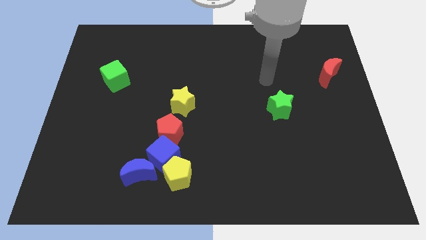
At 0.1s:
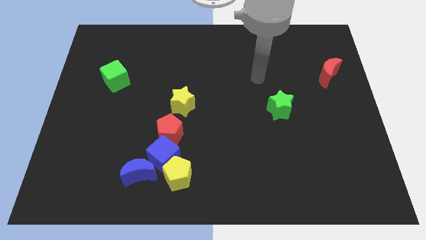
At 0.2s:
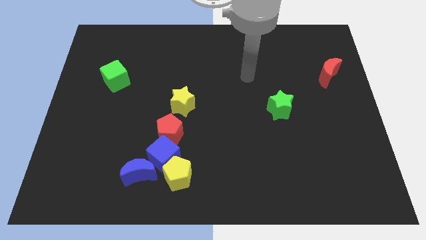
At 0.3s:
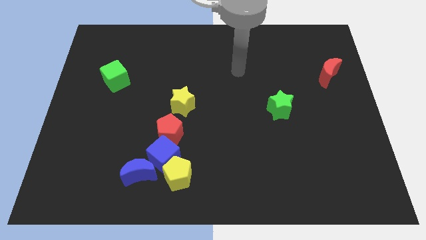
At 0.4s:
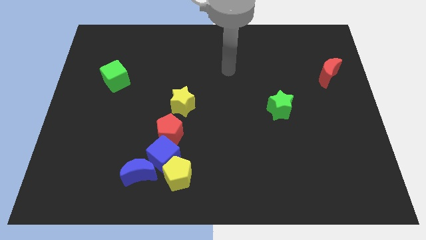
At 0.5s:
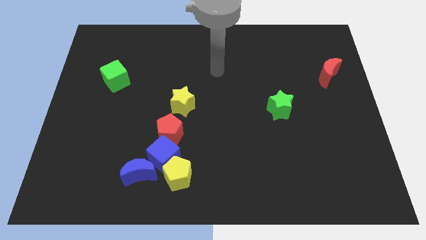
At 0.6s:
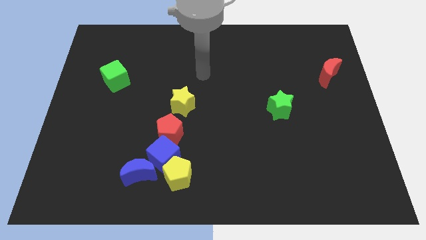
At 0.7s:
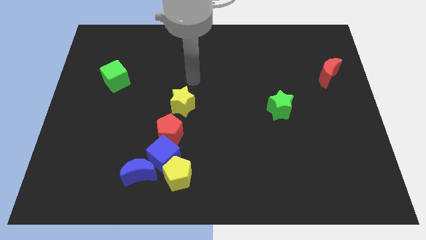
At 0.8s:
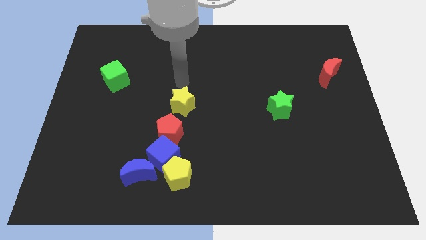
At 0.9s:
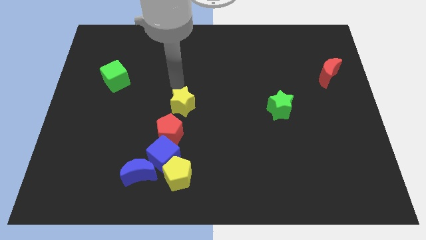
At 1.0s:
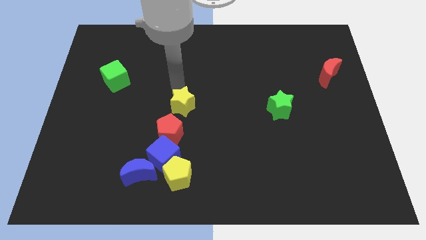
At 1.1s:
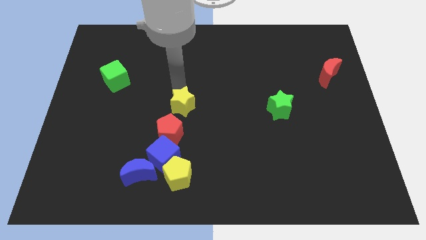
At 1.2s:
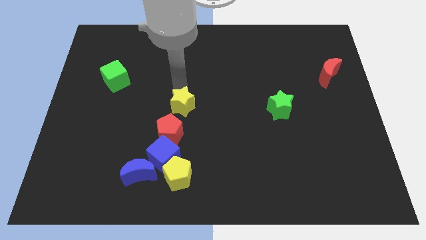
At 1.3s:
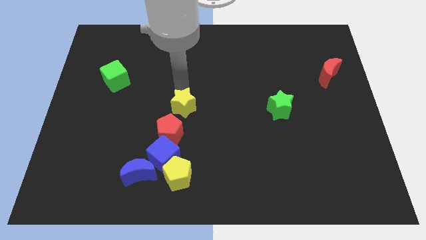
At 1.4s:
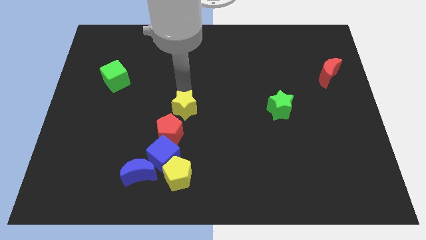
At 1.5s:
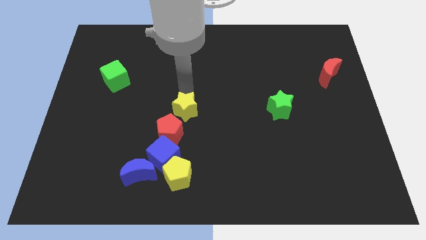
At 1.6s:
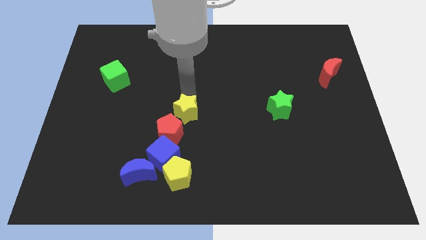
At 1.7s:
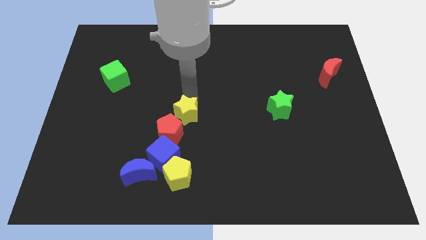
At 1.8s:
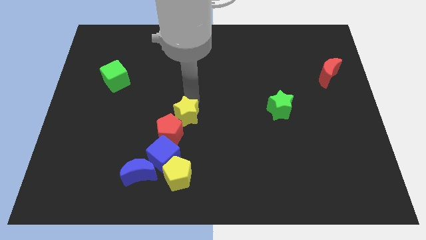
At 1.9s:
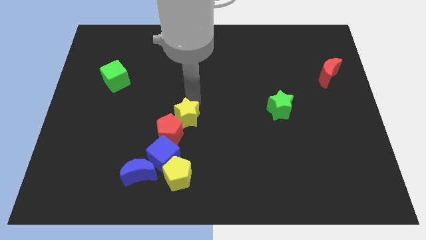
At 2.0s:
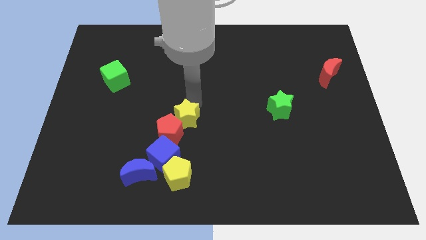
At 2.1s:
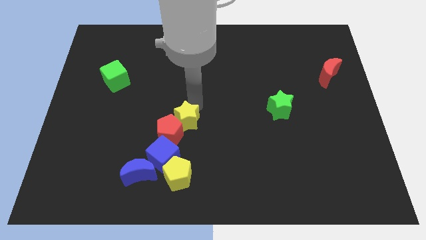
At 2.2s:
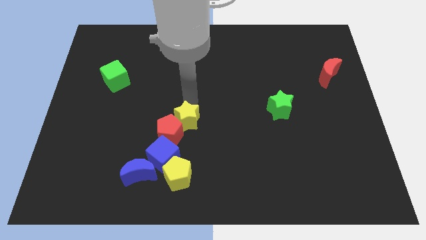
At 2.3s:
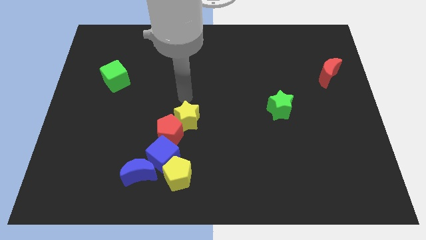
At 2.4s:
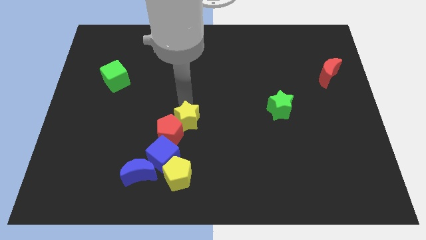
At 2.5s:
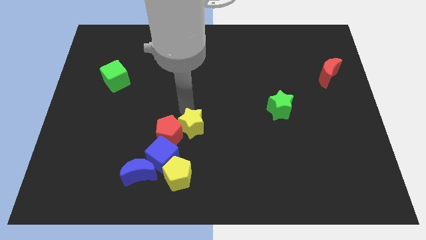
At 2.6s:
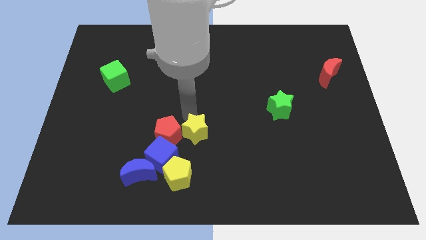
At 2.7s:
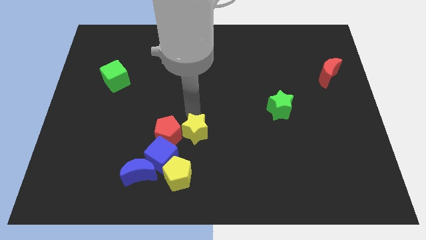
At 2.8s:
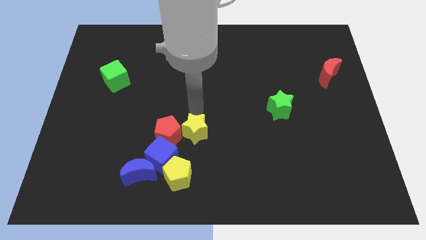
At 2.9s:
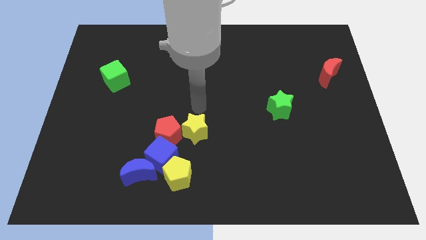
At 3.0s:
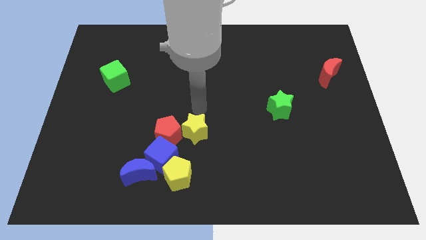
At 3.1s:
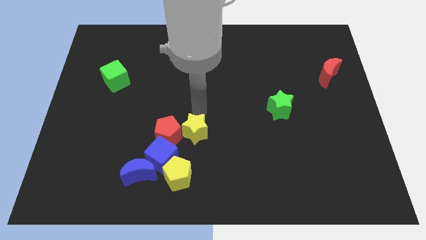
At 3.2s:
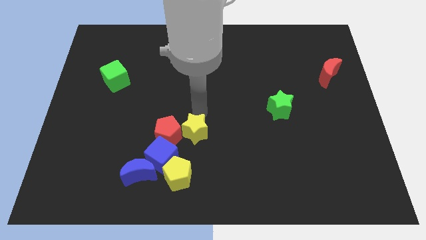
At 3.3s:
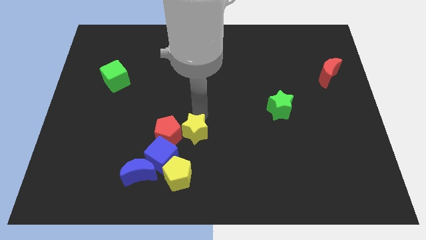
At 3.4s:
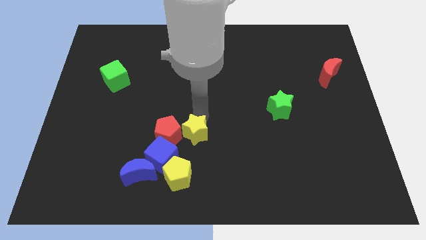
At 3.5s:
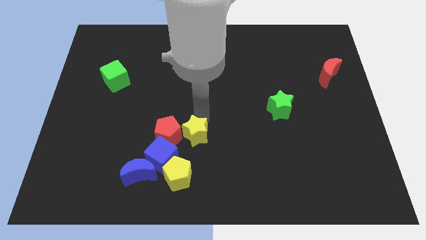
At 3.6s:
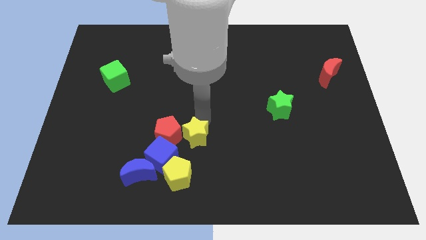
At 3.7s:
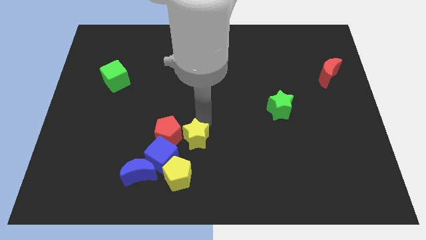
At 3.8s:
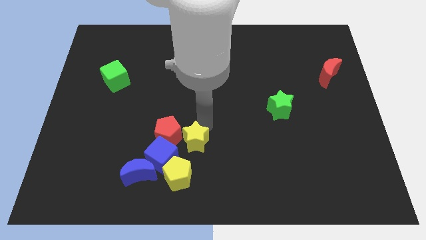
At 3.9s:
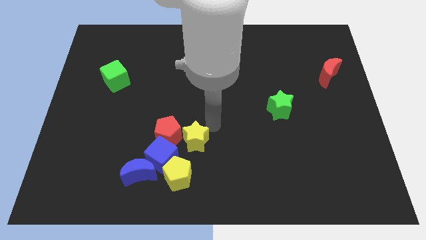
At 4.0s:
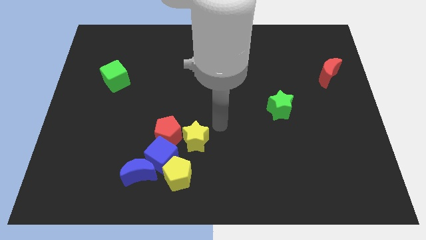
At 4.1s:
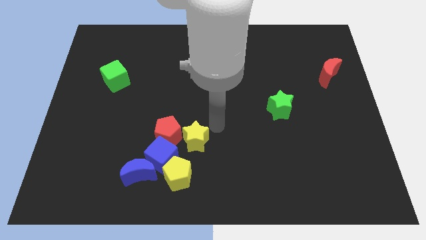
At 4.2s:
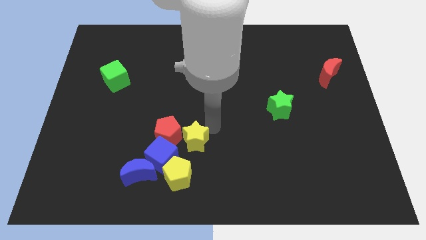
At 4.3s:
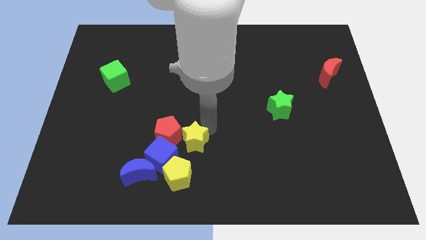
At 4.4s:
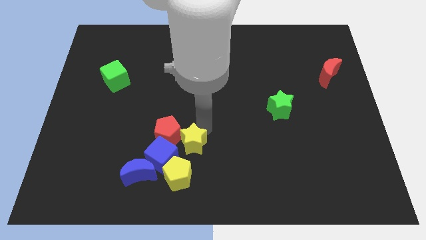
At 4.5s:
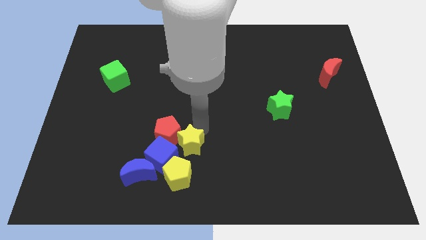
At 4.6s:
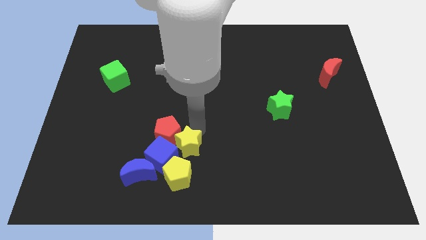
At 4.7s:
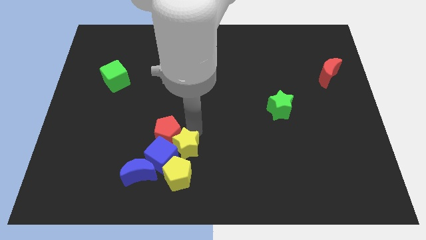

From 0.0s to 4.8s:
put the yellow star to the blue cube

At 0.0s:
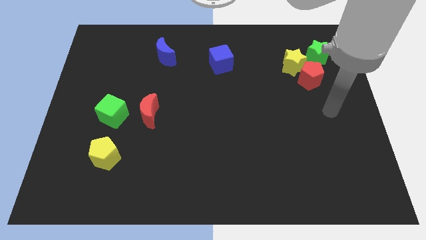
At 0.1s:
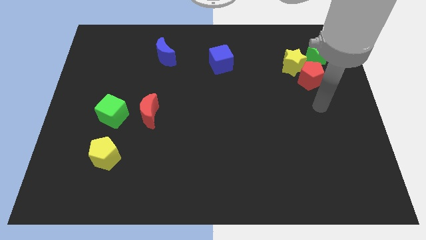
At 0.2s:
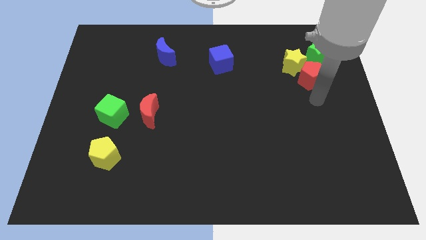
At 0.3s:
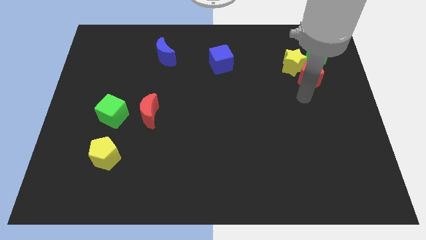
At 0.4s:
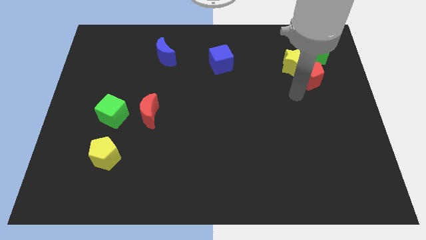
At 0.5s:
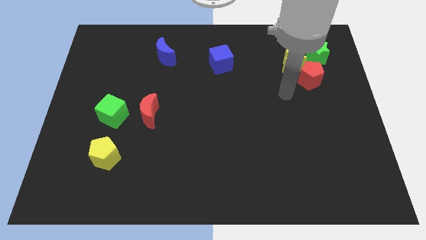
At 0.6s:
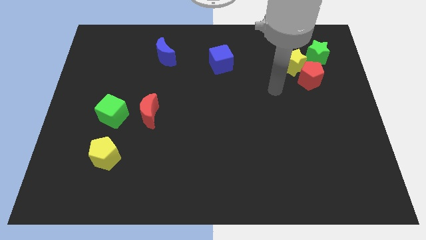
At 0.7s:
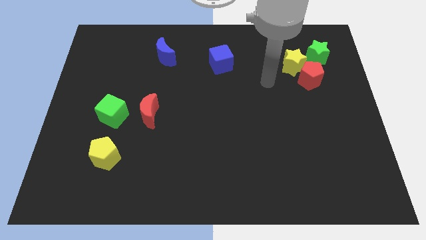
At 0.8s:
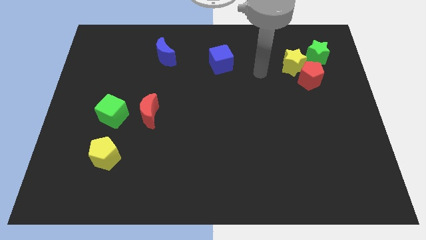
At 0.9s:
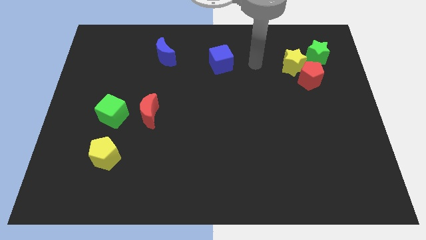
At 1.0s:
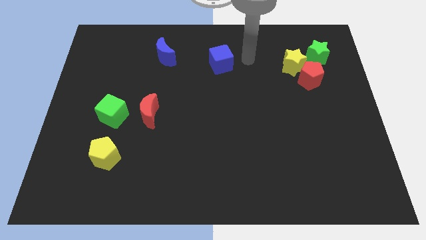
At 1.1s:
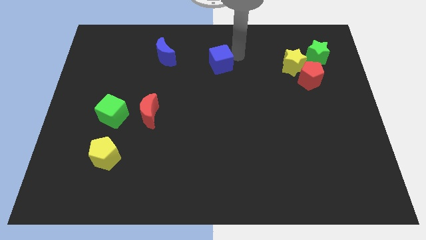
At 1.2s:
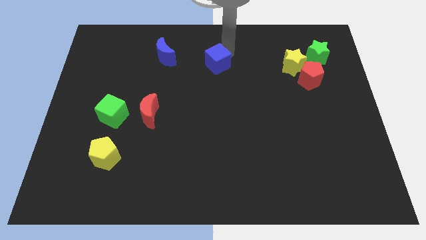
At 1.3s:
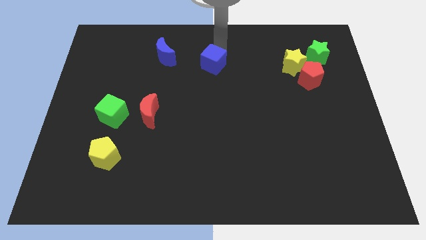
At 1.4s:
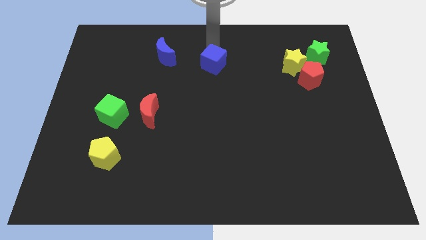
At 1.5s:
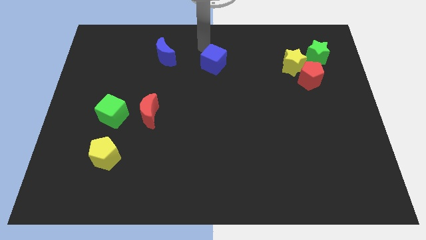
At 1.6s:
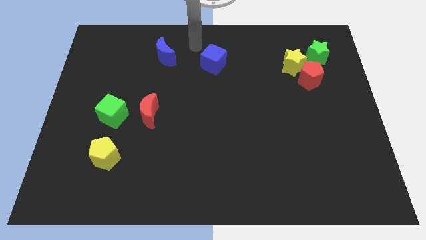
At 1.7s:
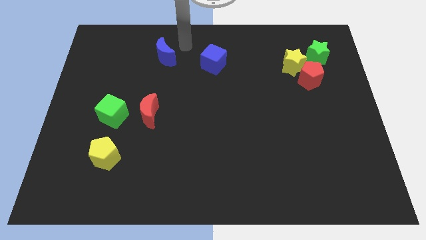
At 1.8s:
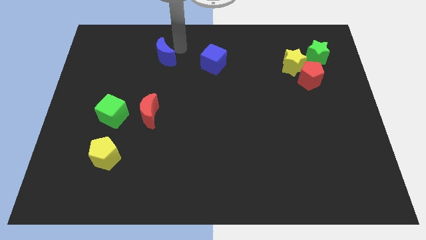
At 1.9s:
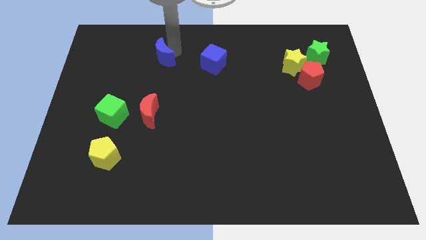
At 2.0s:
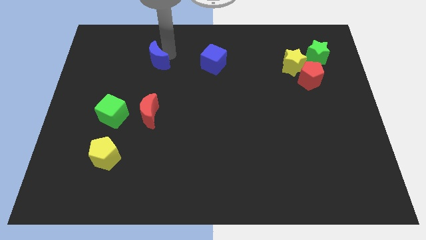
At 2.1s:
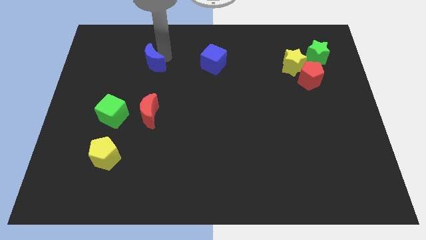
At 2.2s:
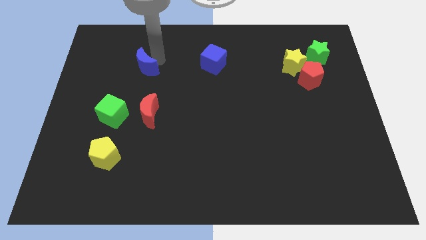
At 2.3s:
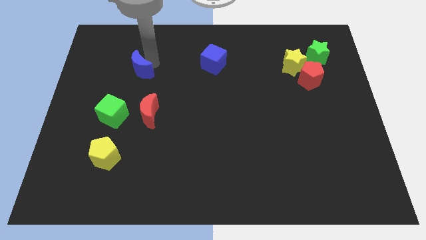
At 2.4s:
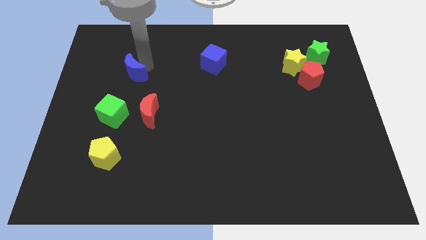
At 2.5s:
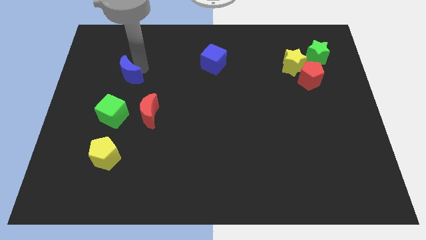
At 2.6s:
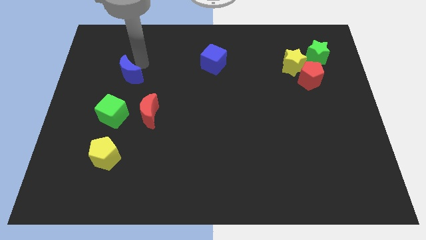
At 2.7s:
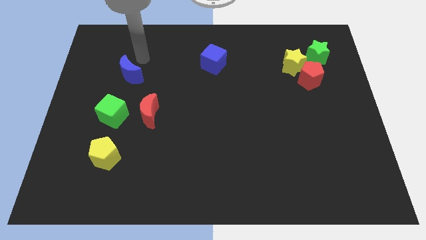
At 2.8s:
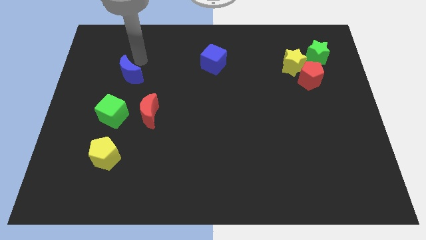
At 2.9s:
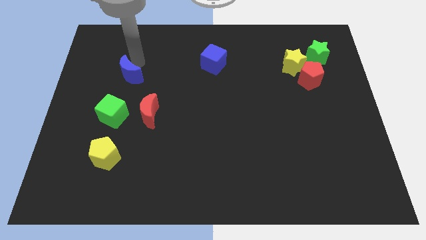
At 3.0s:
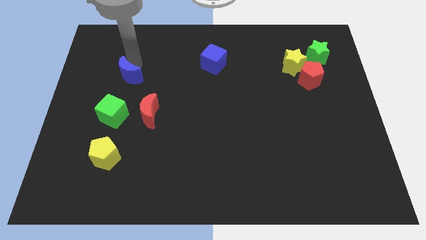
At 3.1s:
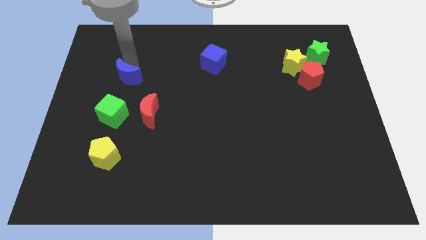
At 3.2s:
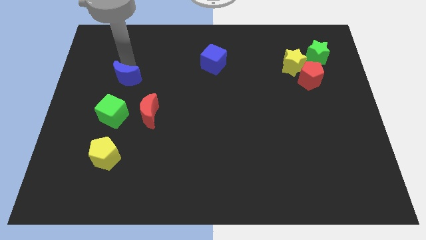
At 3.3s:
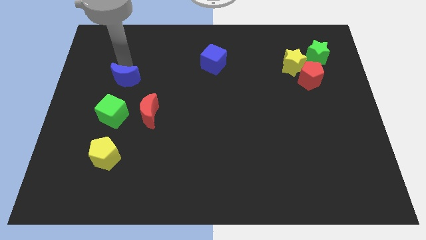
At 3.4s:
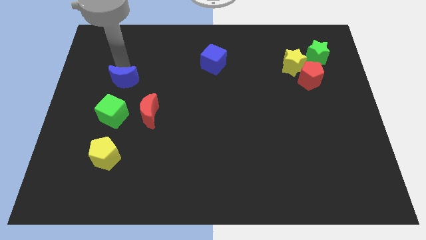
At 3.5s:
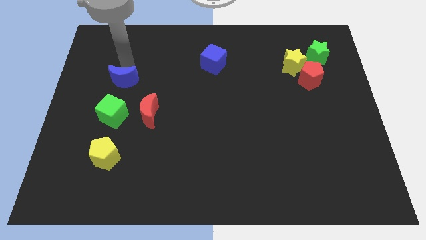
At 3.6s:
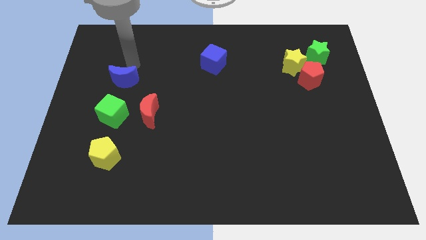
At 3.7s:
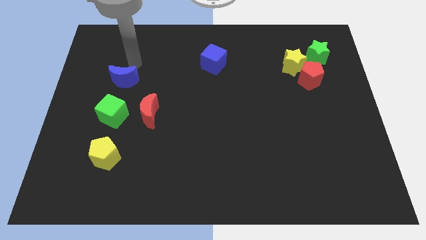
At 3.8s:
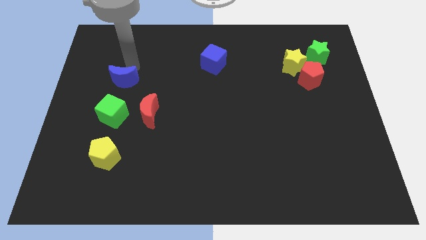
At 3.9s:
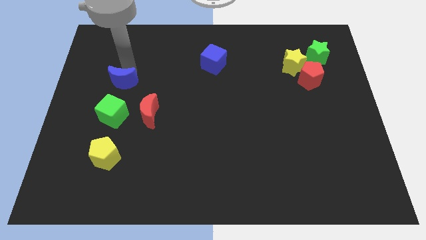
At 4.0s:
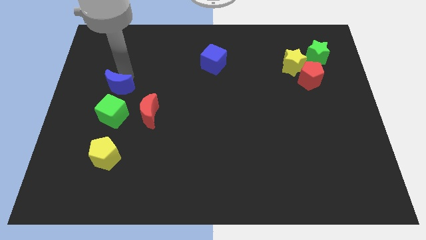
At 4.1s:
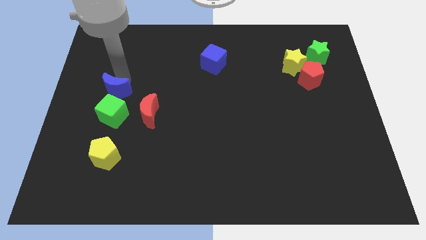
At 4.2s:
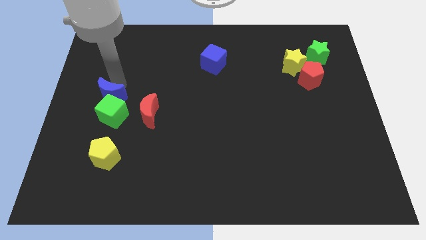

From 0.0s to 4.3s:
move the blue moon close to the green cube
